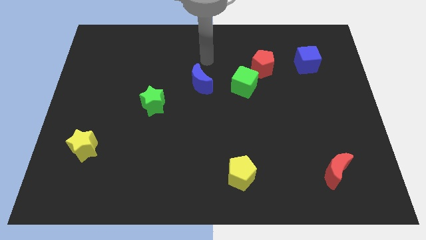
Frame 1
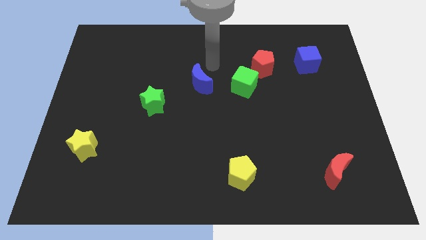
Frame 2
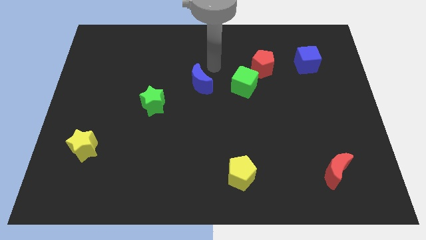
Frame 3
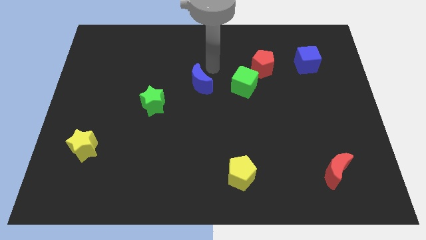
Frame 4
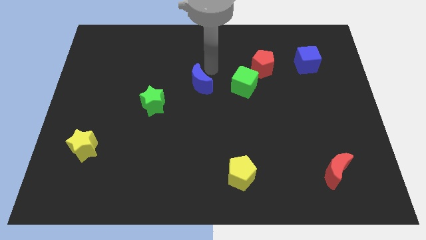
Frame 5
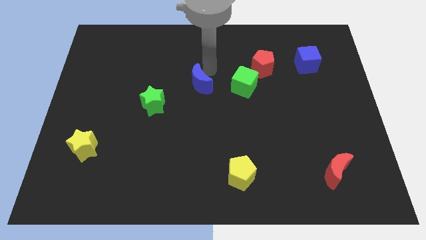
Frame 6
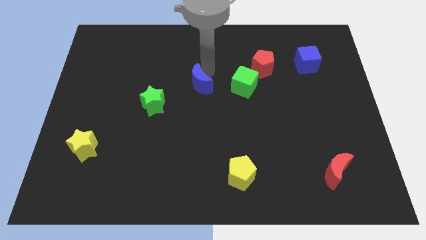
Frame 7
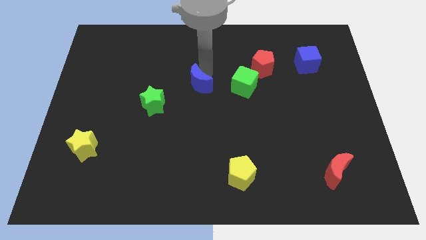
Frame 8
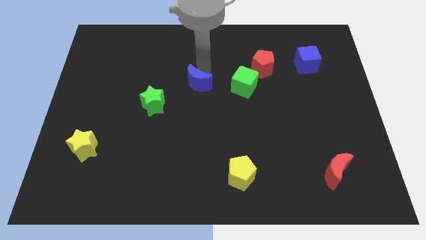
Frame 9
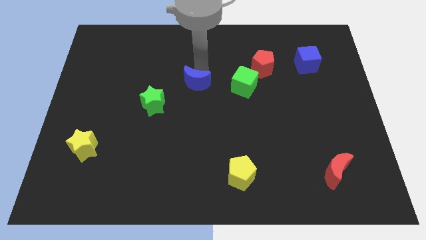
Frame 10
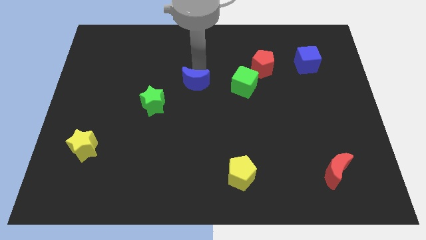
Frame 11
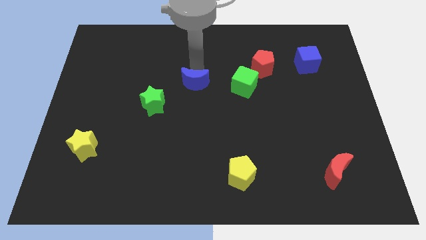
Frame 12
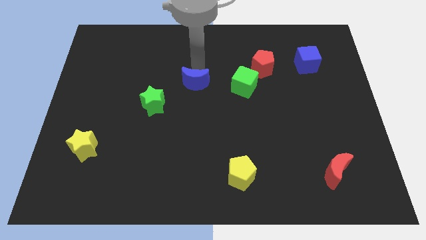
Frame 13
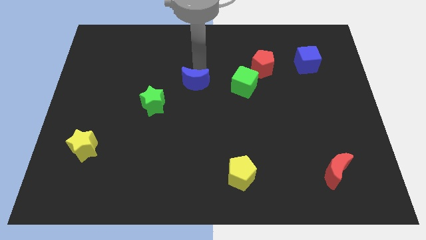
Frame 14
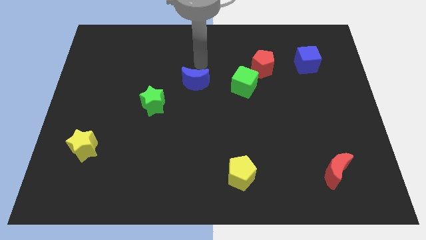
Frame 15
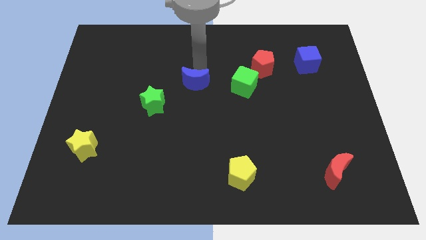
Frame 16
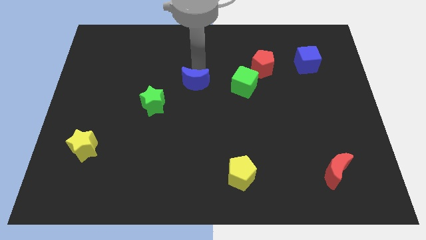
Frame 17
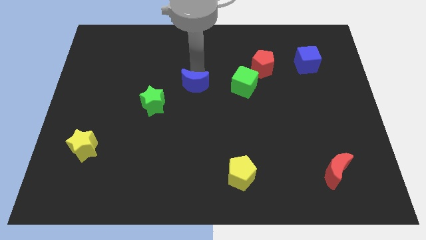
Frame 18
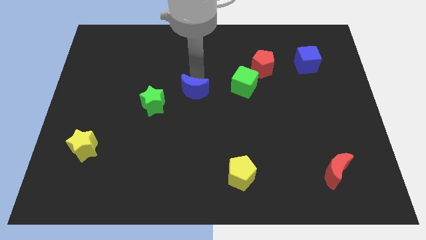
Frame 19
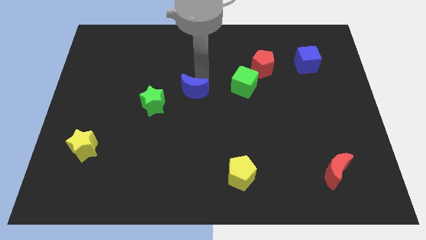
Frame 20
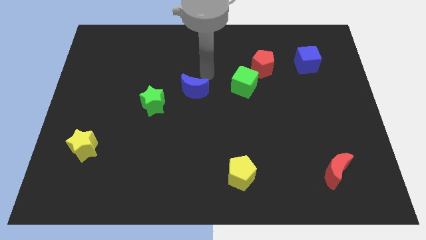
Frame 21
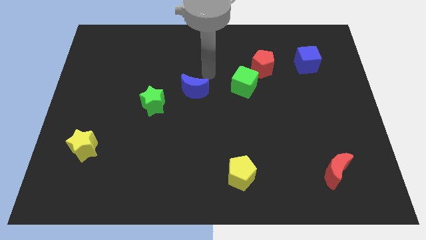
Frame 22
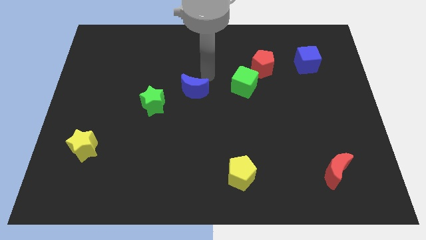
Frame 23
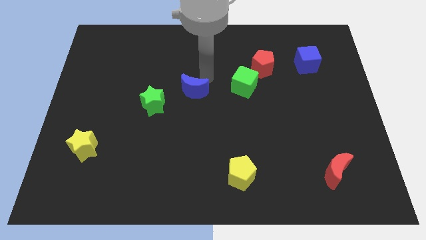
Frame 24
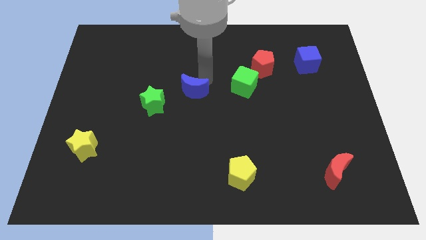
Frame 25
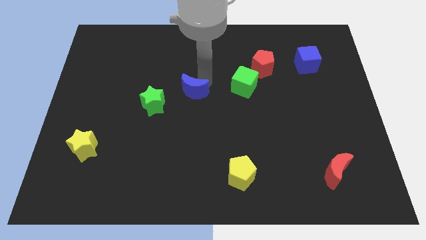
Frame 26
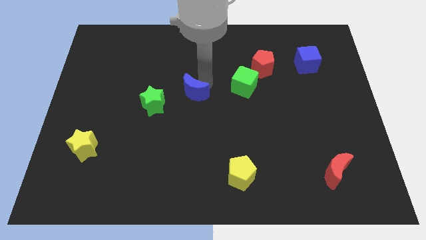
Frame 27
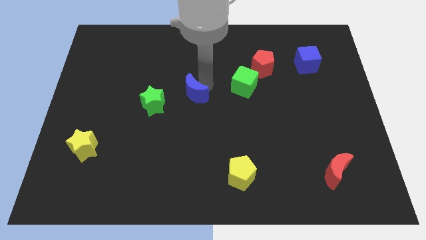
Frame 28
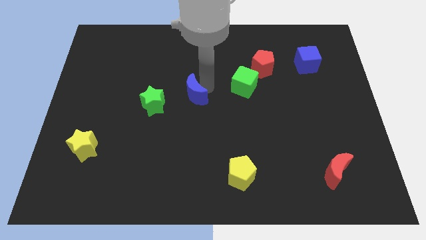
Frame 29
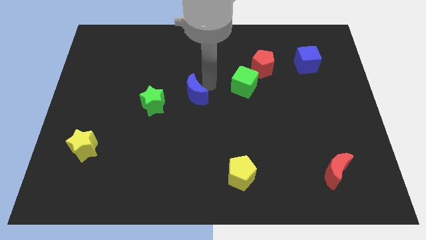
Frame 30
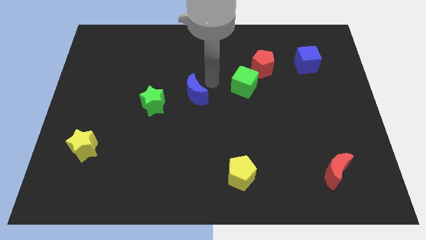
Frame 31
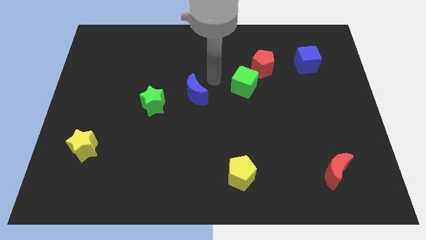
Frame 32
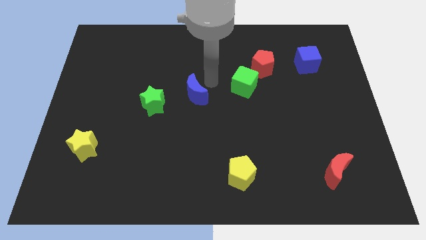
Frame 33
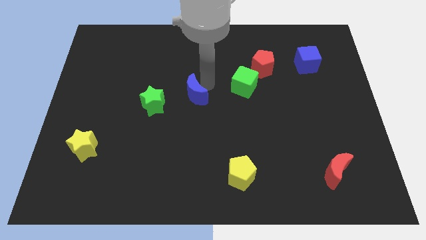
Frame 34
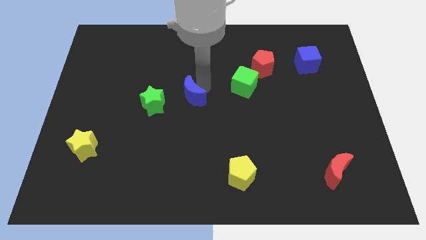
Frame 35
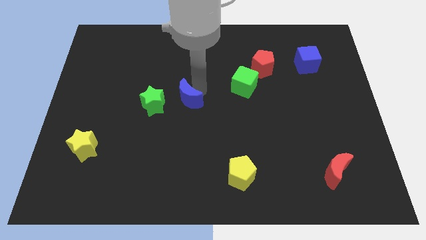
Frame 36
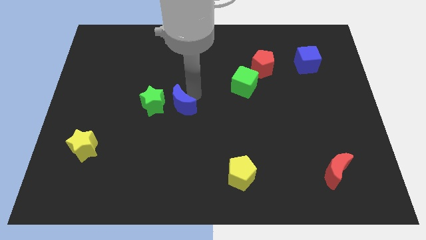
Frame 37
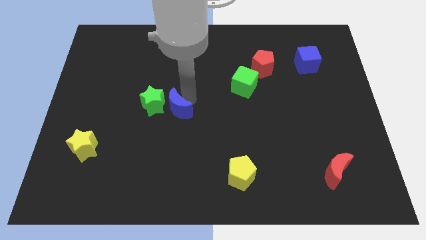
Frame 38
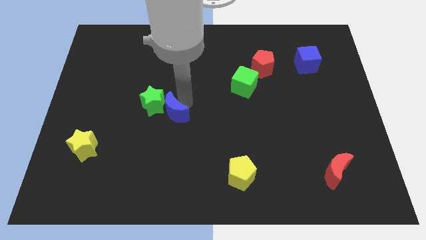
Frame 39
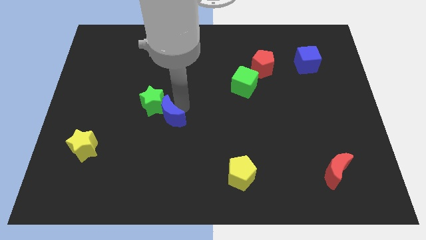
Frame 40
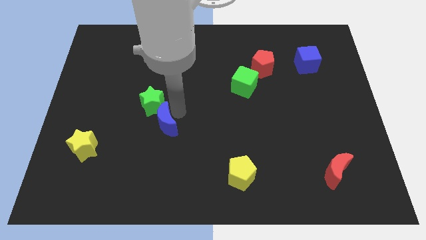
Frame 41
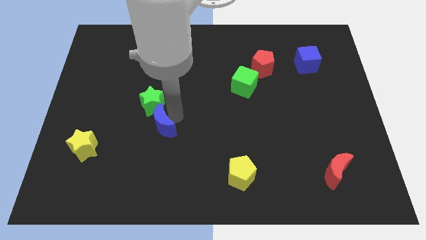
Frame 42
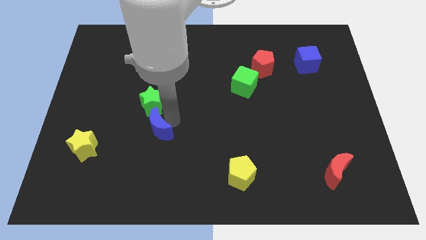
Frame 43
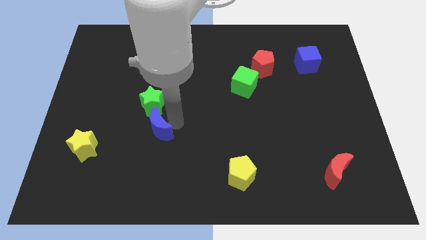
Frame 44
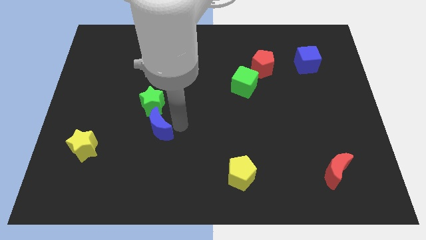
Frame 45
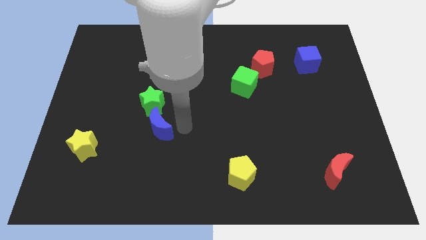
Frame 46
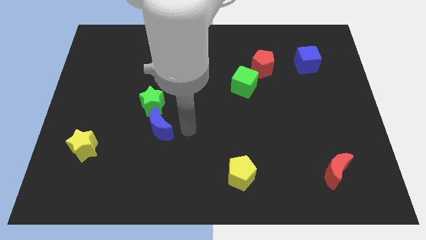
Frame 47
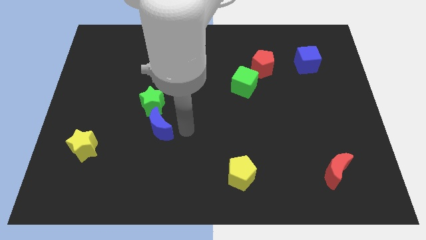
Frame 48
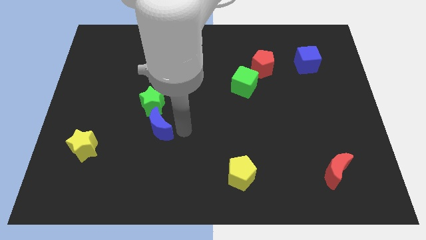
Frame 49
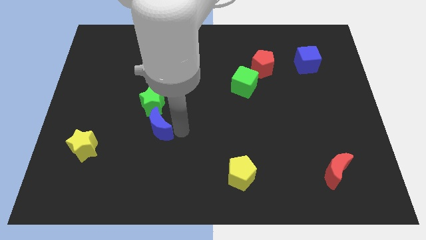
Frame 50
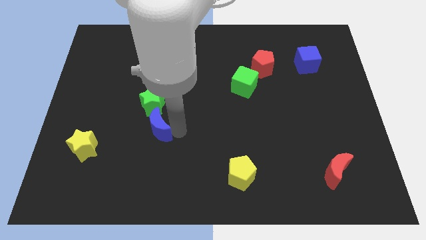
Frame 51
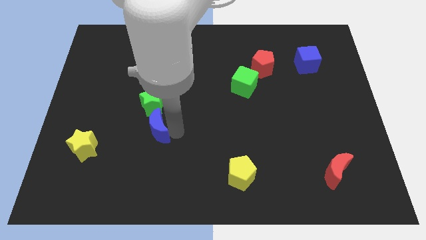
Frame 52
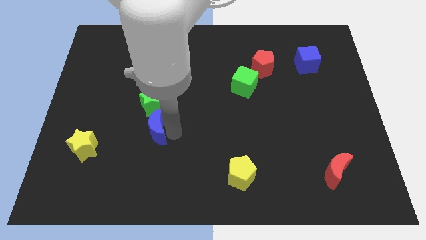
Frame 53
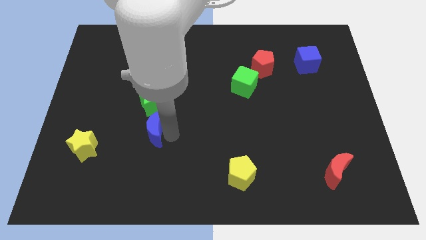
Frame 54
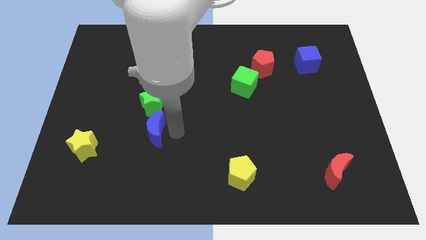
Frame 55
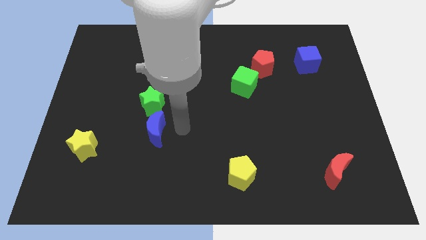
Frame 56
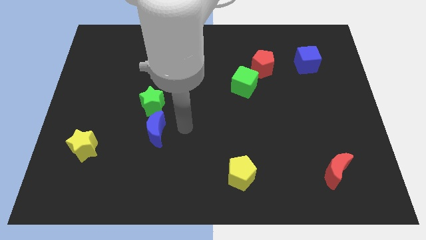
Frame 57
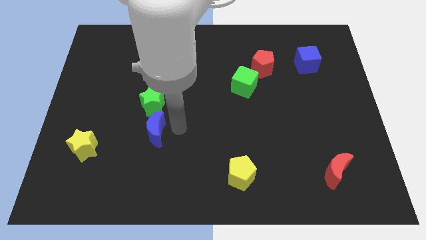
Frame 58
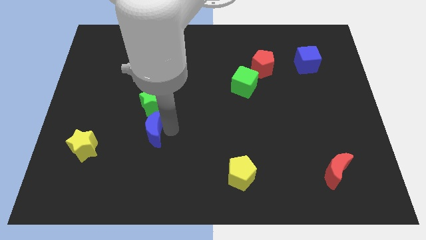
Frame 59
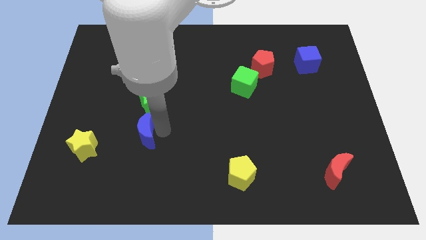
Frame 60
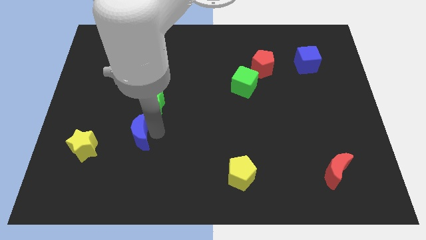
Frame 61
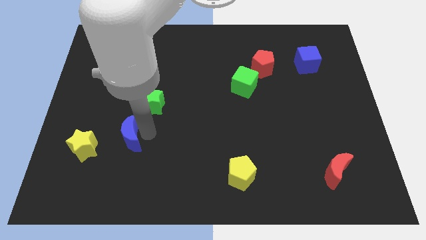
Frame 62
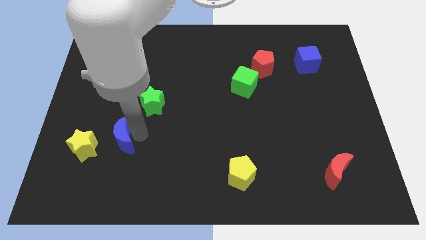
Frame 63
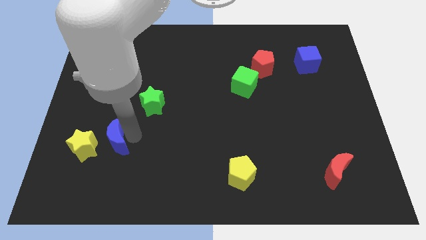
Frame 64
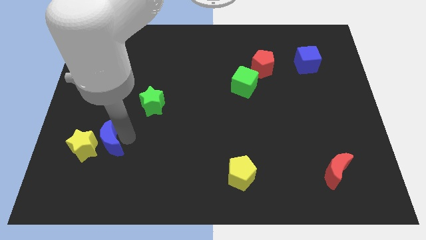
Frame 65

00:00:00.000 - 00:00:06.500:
put the blue moon to the yellow star

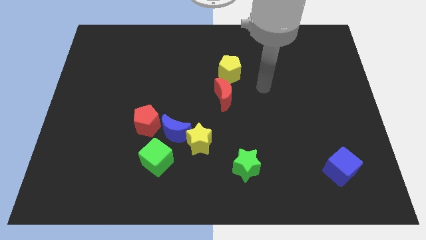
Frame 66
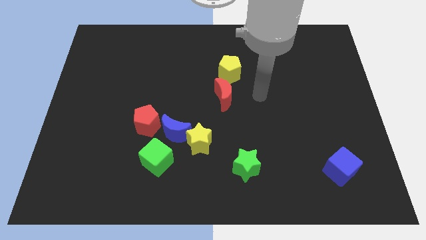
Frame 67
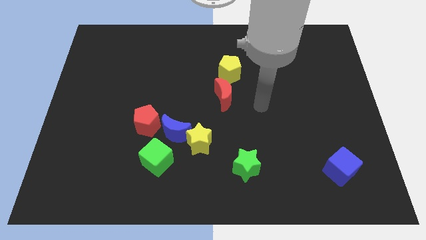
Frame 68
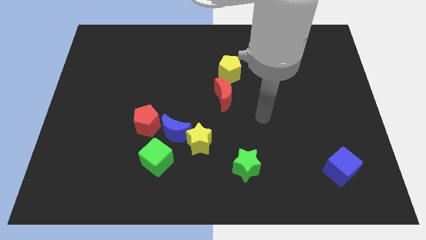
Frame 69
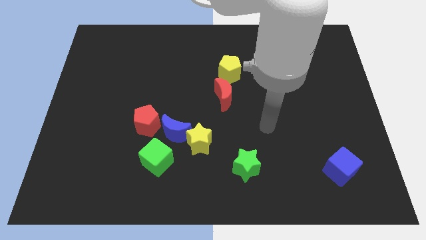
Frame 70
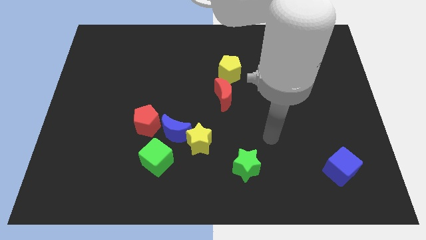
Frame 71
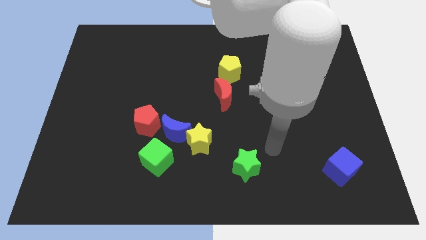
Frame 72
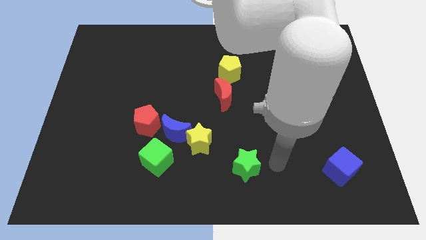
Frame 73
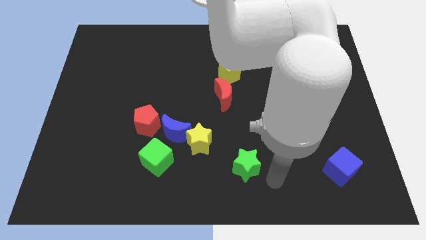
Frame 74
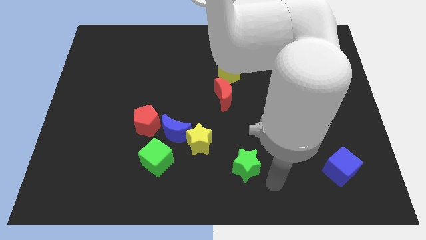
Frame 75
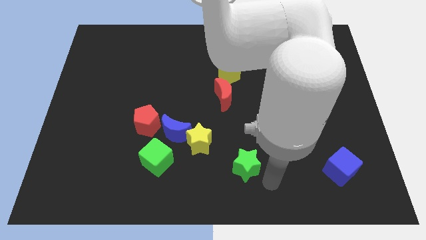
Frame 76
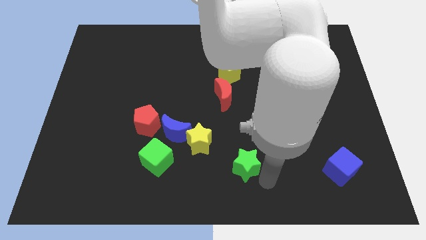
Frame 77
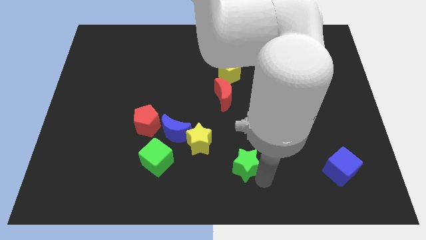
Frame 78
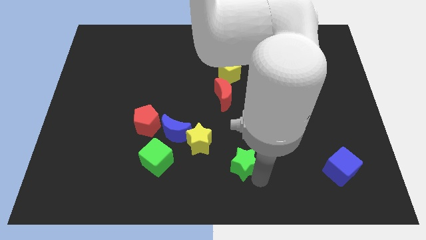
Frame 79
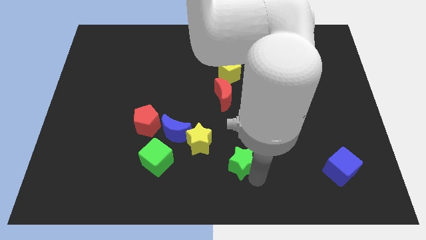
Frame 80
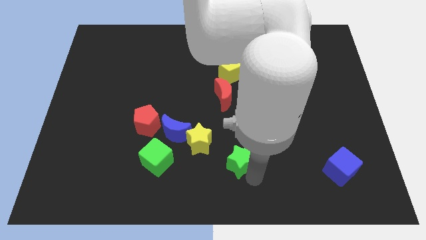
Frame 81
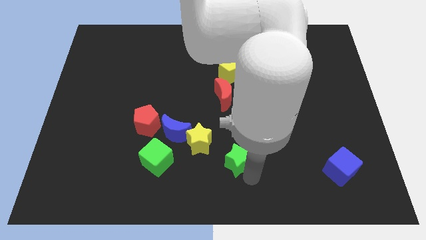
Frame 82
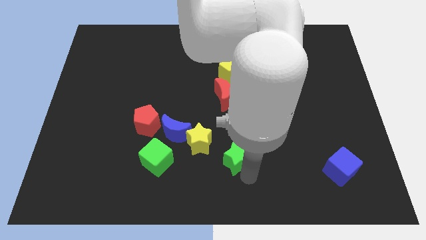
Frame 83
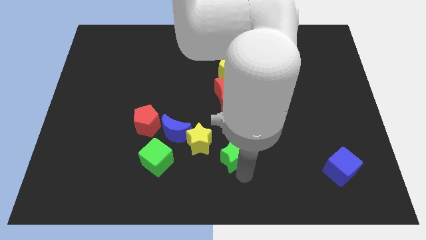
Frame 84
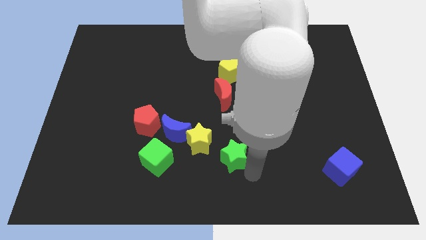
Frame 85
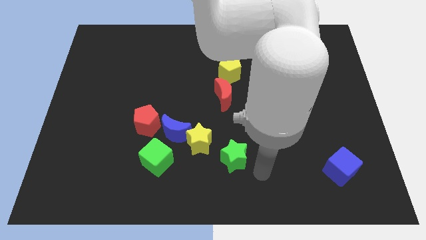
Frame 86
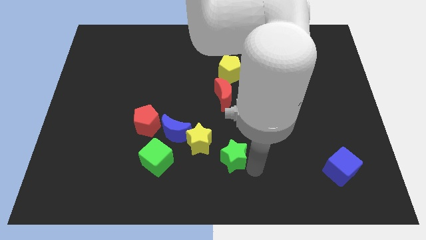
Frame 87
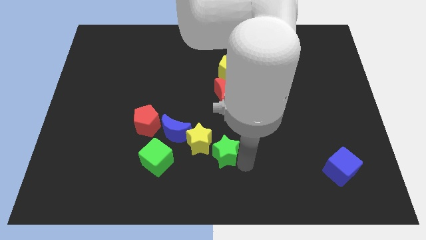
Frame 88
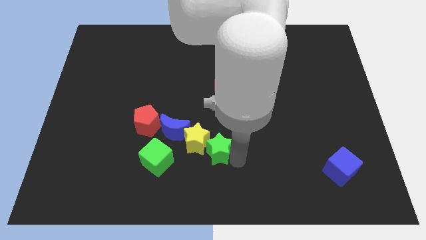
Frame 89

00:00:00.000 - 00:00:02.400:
move the green star to the yellow star
